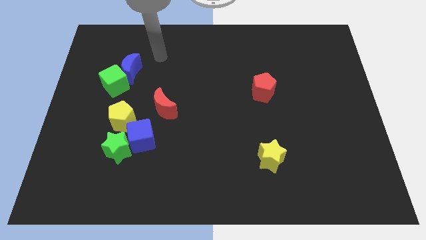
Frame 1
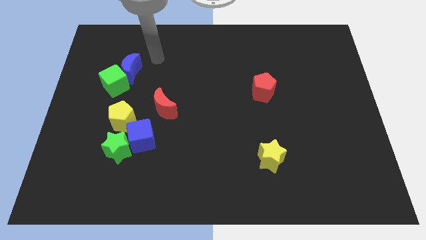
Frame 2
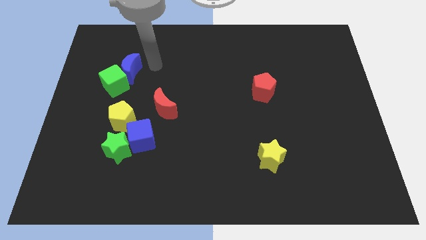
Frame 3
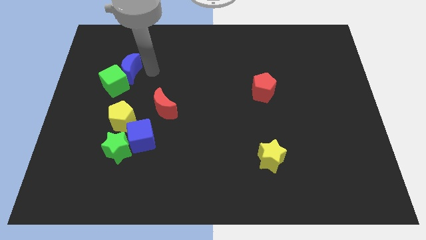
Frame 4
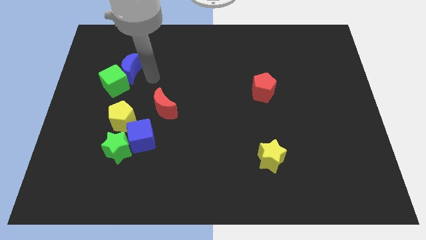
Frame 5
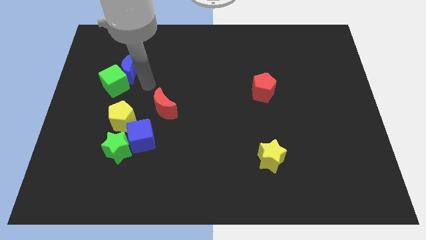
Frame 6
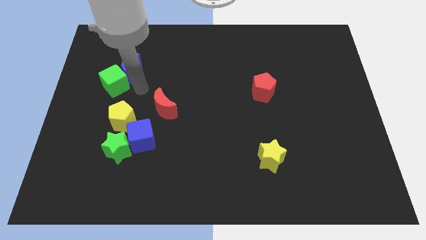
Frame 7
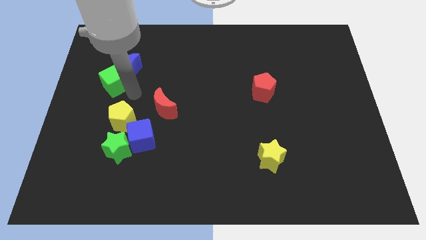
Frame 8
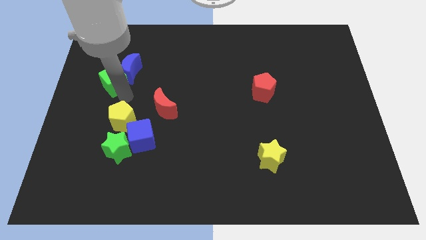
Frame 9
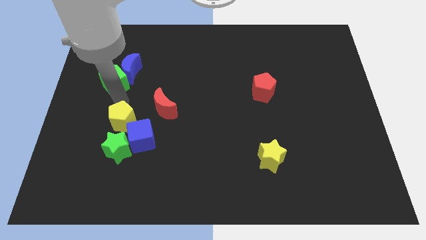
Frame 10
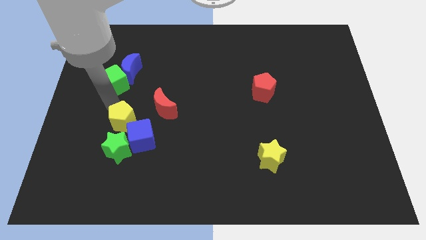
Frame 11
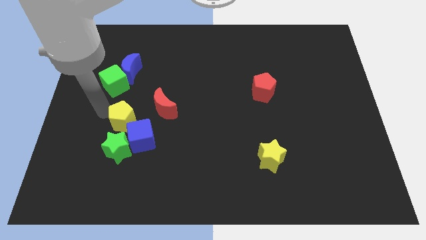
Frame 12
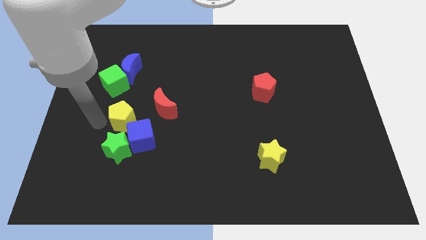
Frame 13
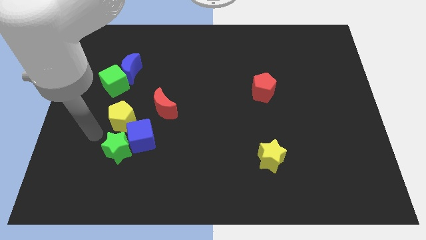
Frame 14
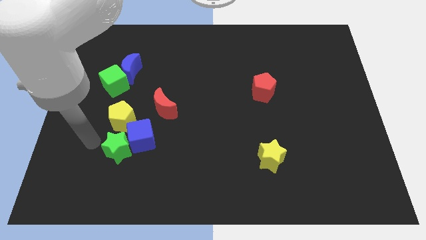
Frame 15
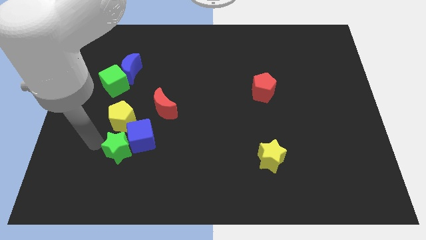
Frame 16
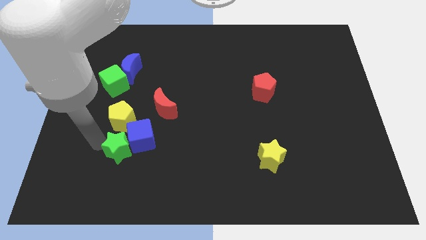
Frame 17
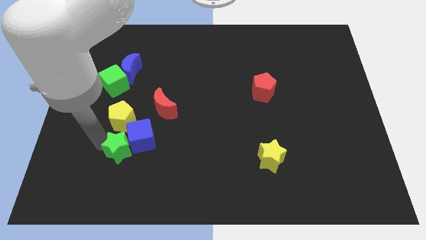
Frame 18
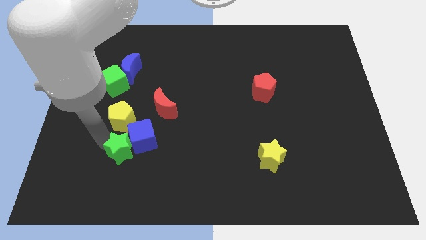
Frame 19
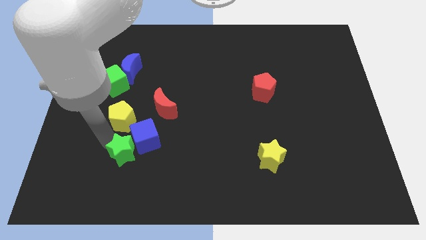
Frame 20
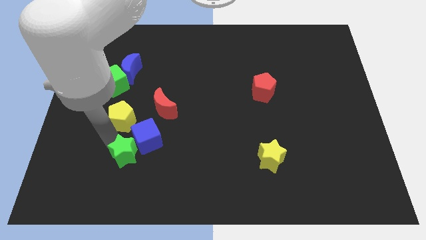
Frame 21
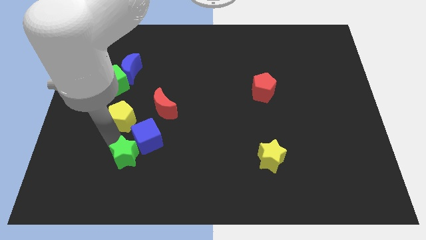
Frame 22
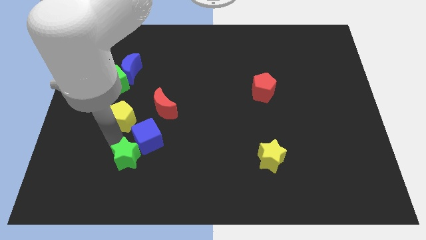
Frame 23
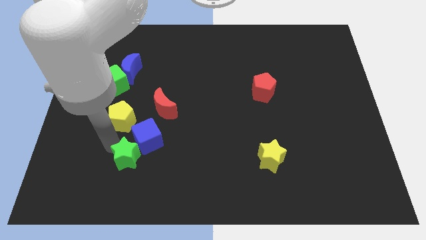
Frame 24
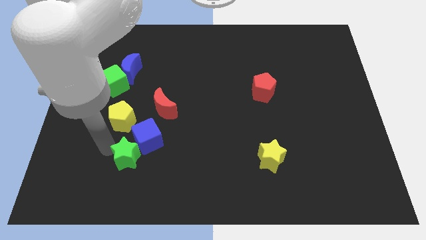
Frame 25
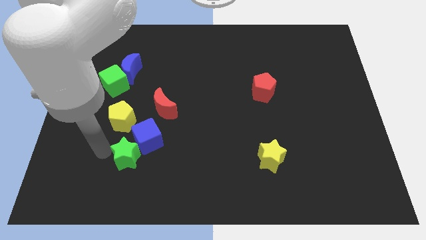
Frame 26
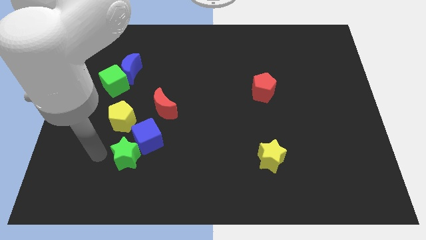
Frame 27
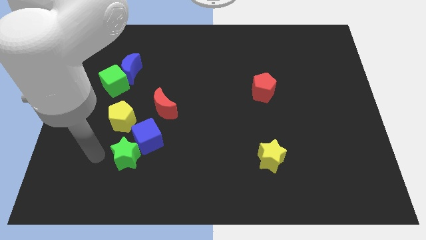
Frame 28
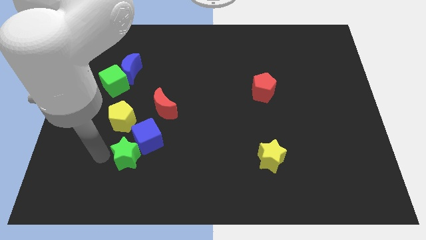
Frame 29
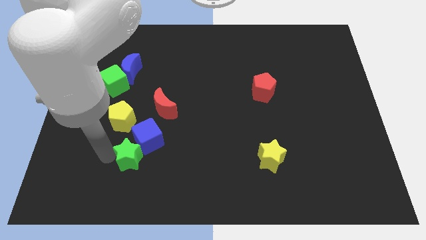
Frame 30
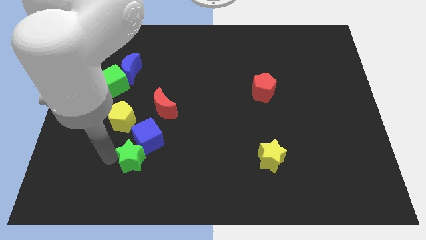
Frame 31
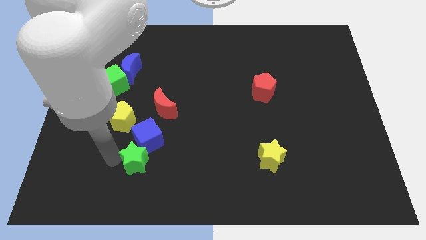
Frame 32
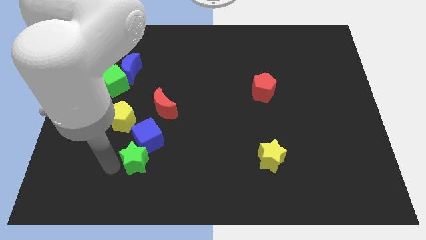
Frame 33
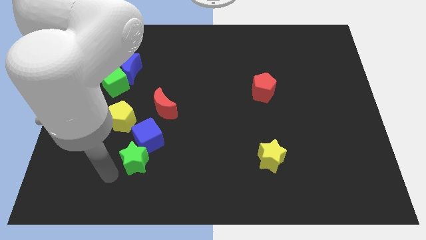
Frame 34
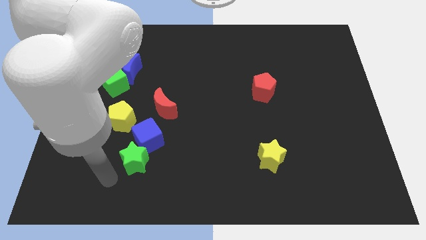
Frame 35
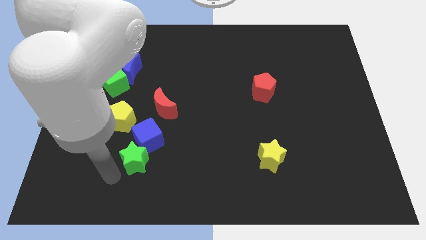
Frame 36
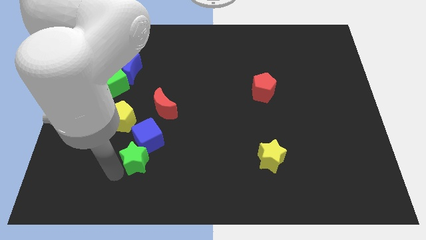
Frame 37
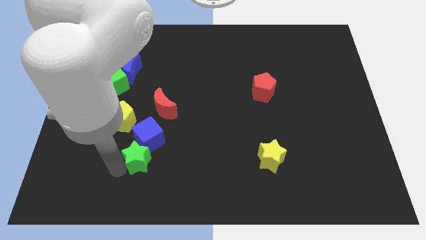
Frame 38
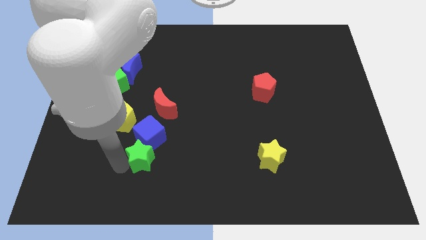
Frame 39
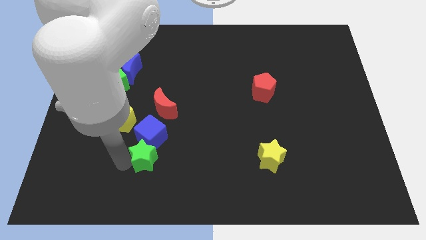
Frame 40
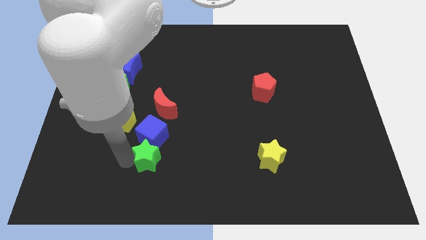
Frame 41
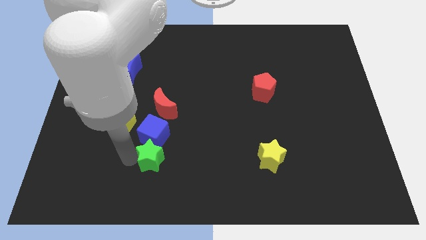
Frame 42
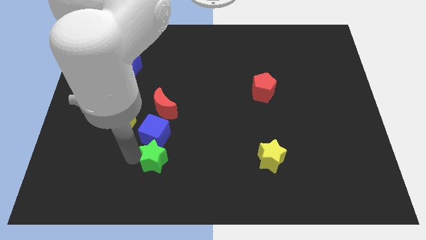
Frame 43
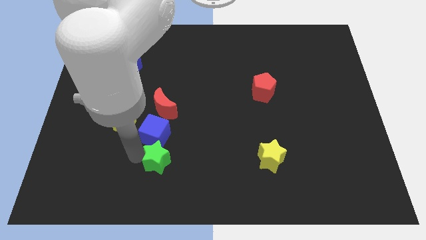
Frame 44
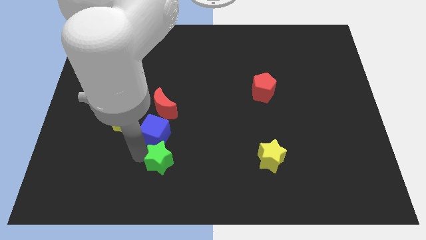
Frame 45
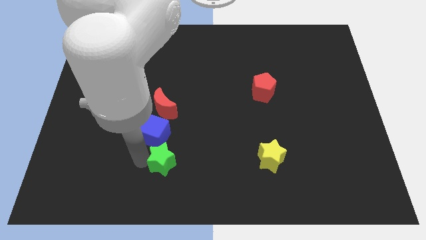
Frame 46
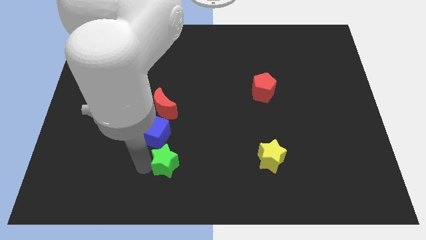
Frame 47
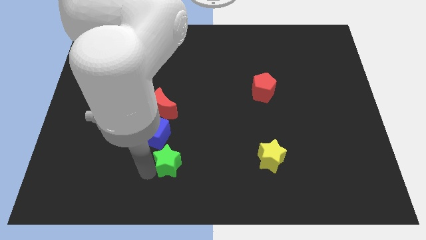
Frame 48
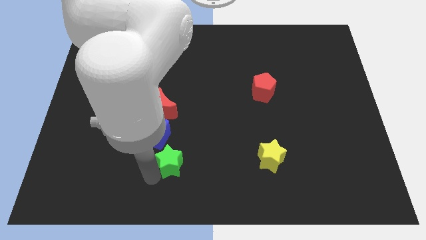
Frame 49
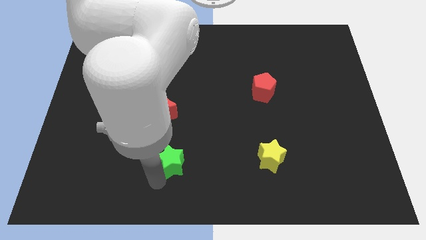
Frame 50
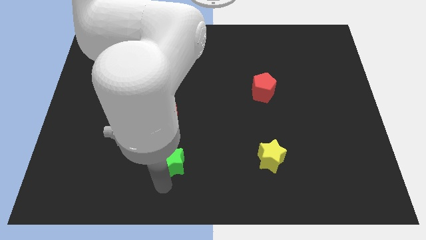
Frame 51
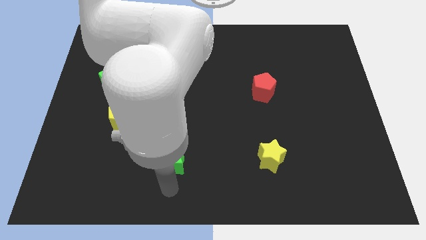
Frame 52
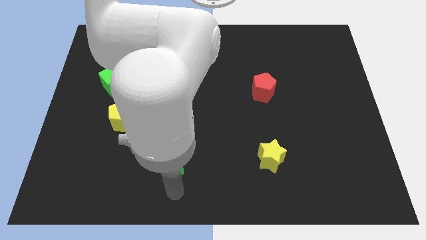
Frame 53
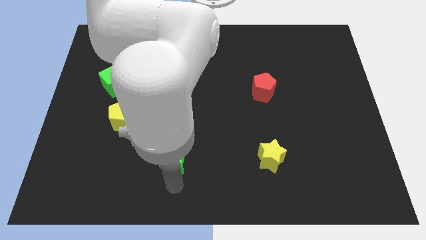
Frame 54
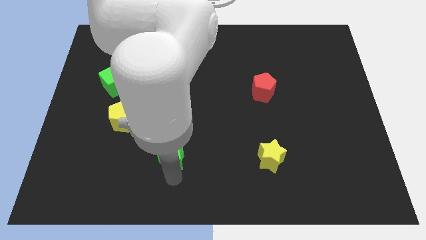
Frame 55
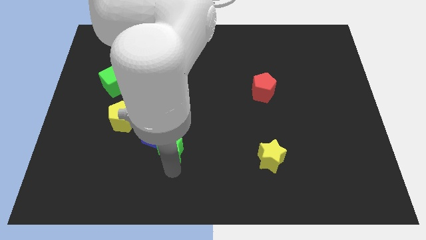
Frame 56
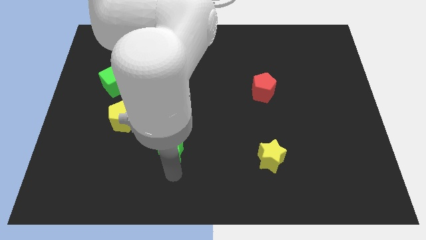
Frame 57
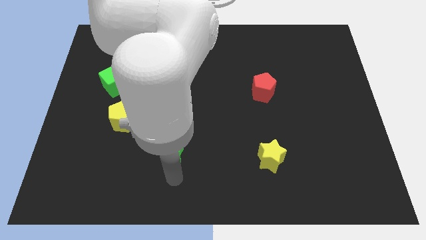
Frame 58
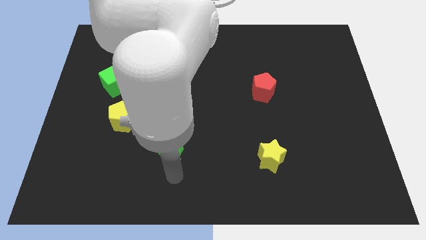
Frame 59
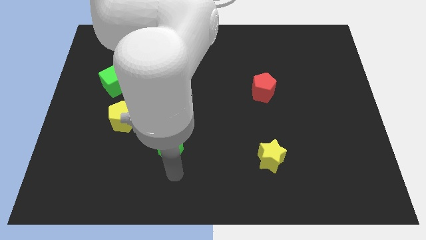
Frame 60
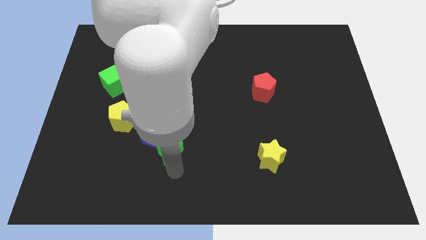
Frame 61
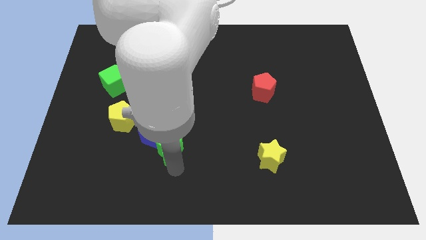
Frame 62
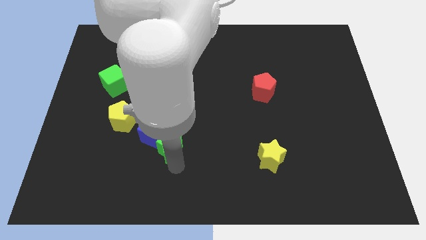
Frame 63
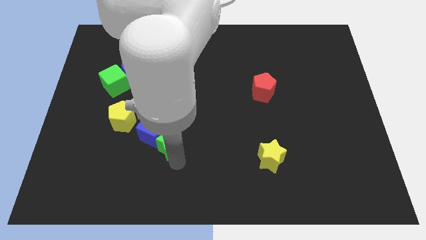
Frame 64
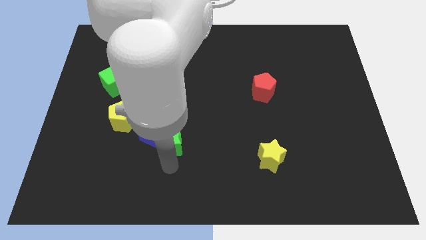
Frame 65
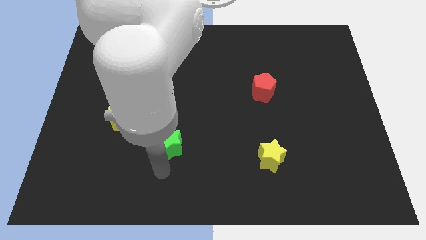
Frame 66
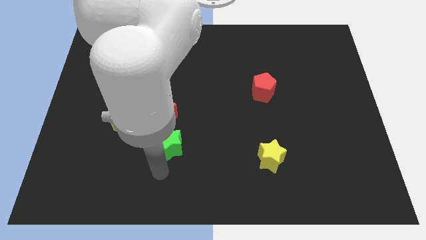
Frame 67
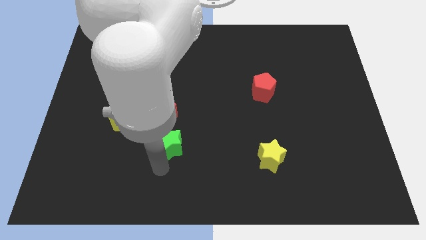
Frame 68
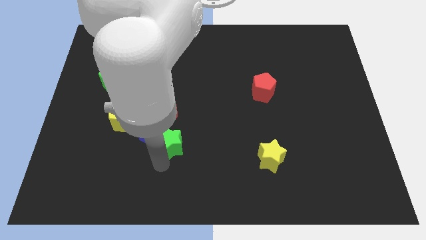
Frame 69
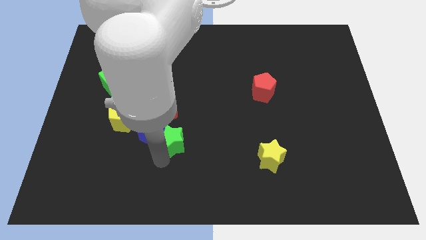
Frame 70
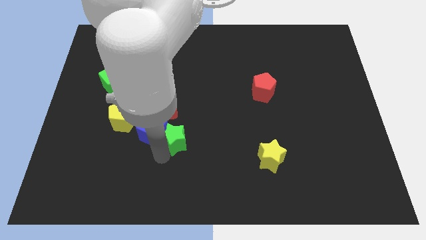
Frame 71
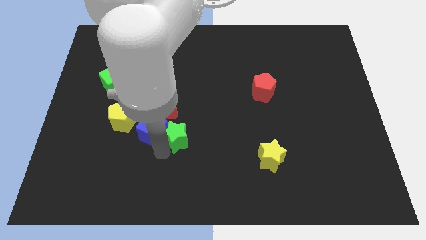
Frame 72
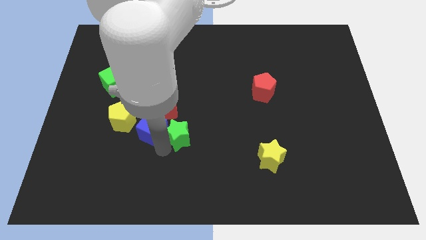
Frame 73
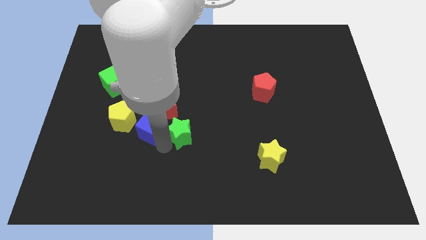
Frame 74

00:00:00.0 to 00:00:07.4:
move the green star to the middle of the board
